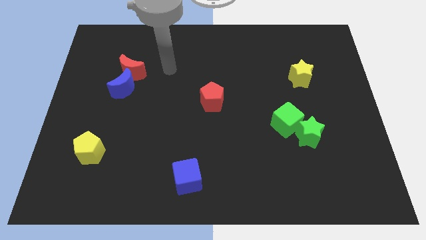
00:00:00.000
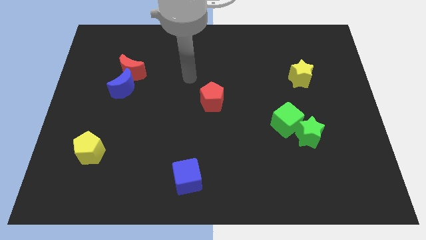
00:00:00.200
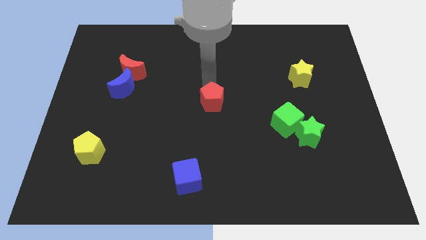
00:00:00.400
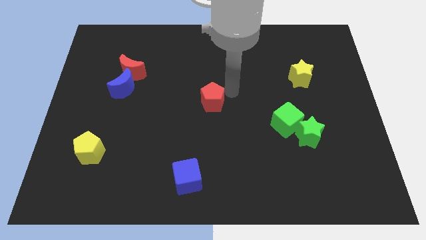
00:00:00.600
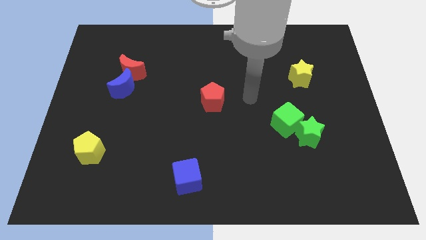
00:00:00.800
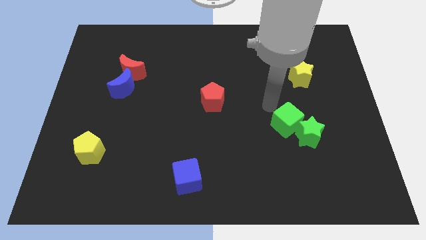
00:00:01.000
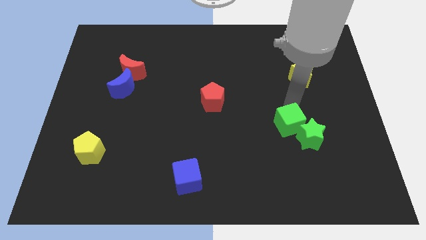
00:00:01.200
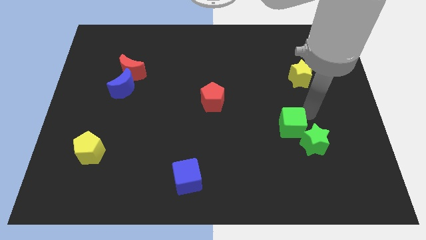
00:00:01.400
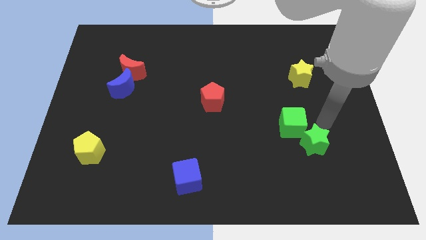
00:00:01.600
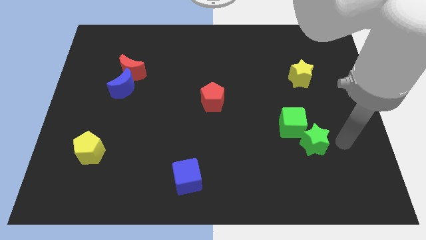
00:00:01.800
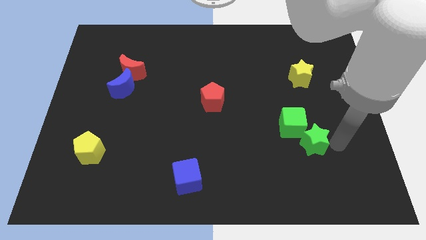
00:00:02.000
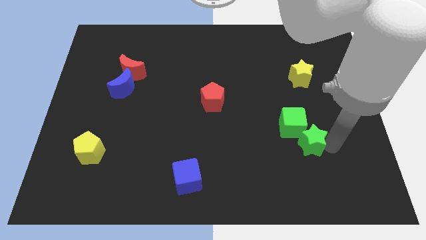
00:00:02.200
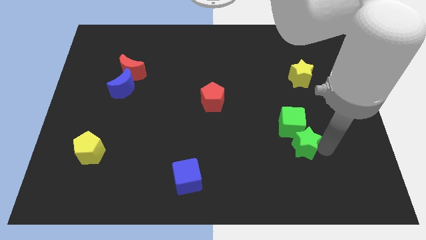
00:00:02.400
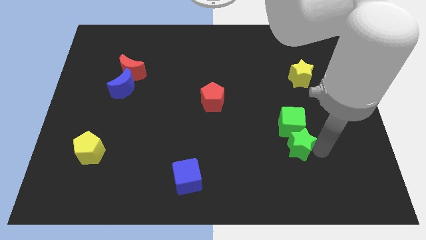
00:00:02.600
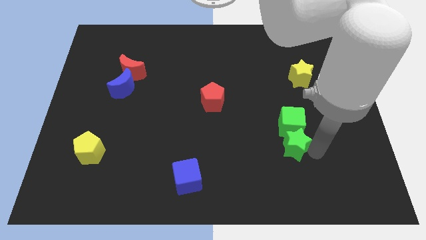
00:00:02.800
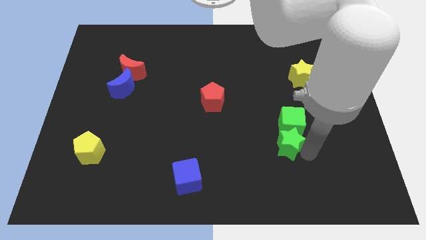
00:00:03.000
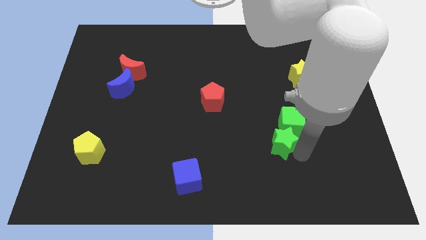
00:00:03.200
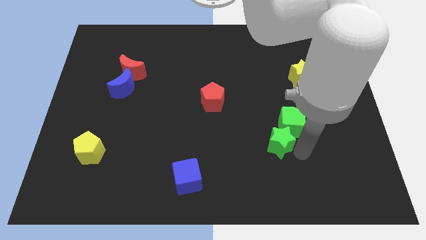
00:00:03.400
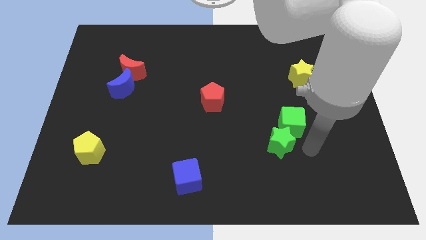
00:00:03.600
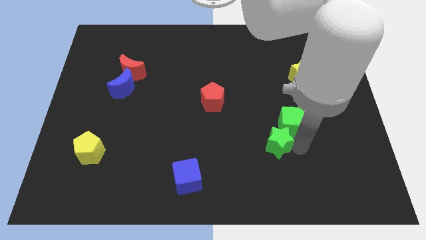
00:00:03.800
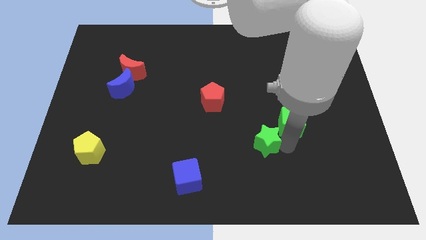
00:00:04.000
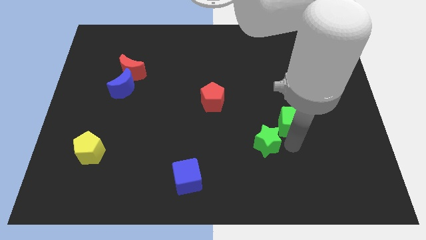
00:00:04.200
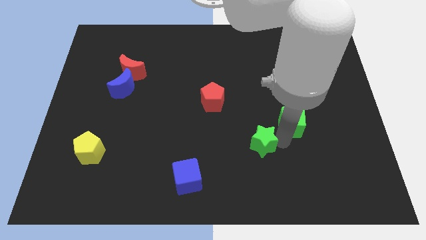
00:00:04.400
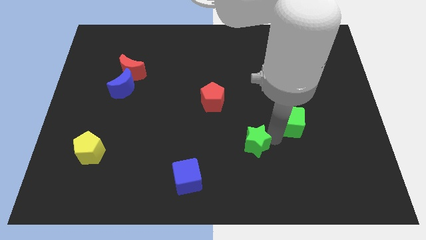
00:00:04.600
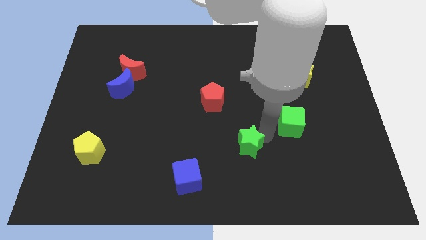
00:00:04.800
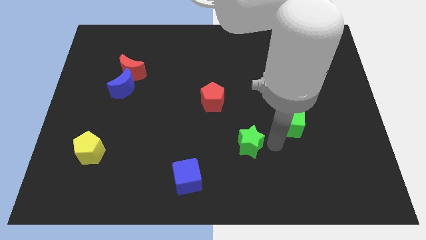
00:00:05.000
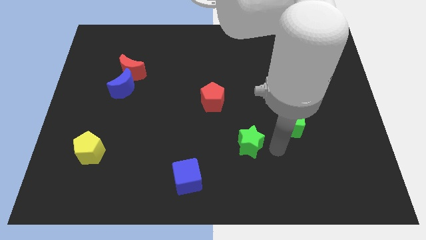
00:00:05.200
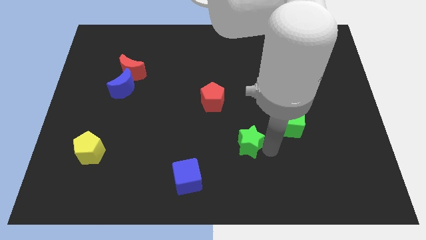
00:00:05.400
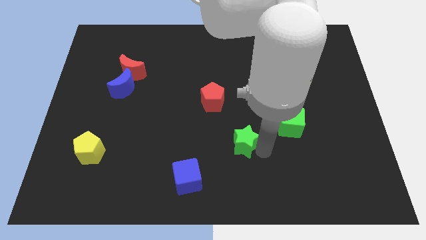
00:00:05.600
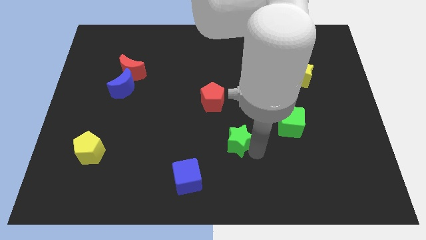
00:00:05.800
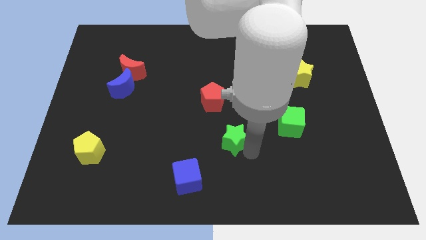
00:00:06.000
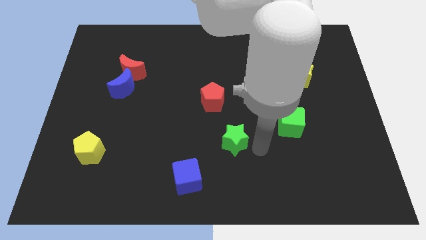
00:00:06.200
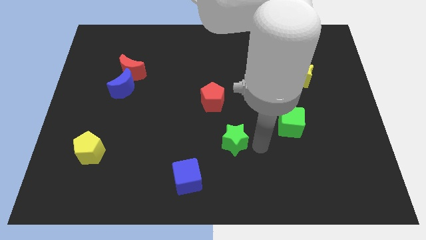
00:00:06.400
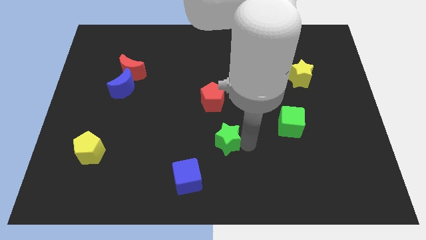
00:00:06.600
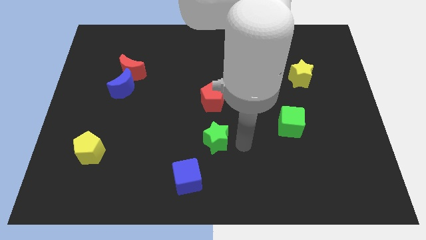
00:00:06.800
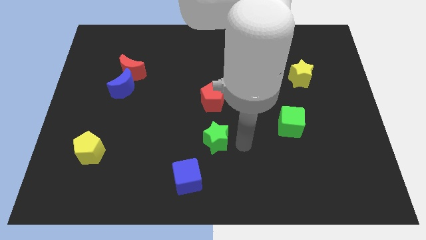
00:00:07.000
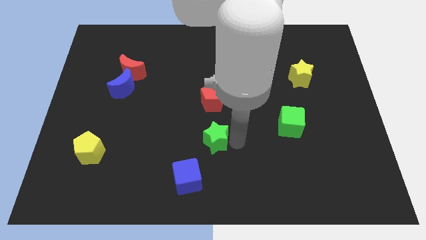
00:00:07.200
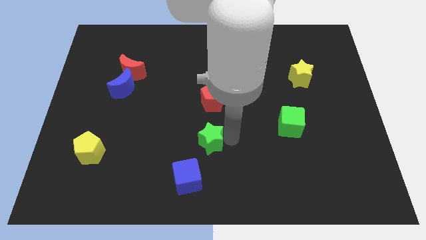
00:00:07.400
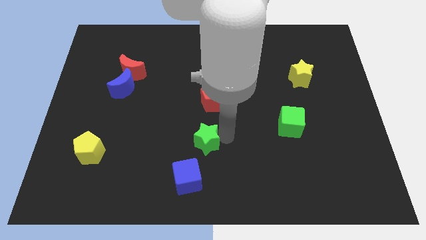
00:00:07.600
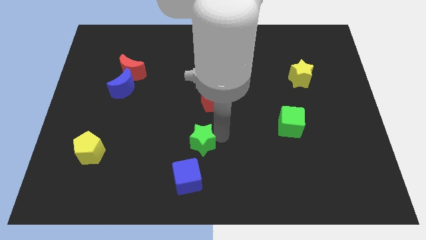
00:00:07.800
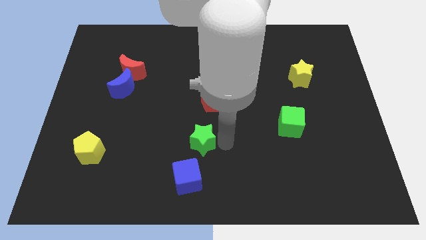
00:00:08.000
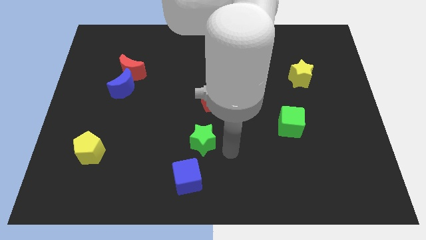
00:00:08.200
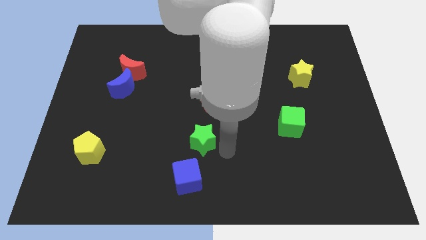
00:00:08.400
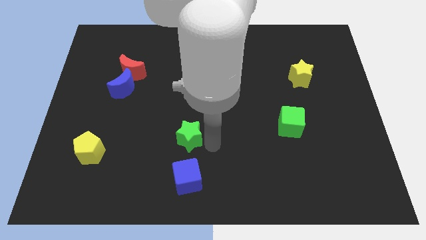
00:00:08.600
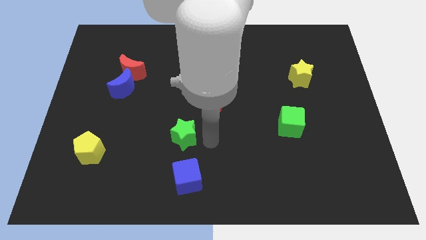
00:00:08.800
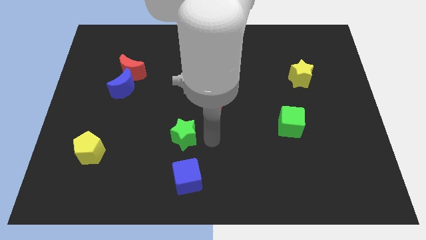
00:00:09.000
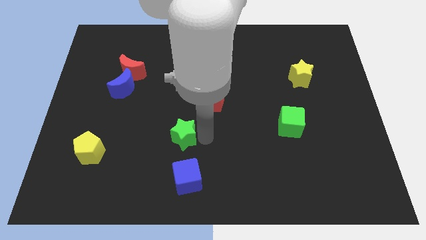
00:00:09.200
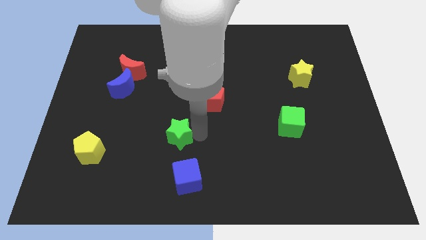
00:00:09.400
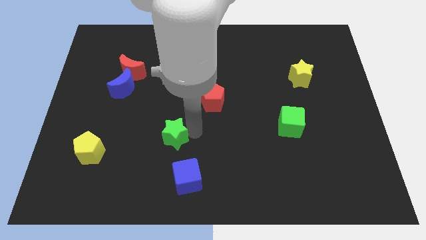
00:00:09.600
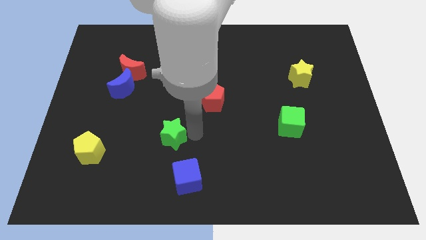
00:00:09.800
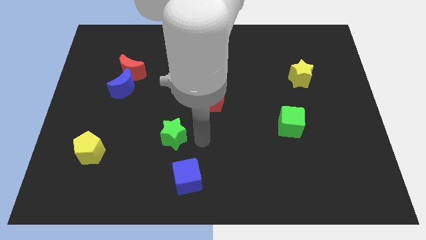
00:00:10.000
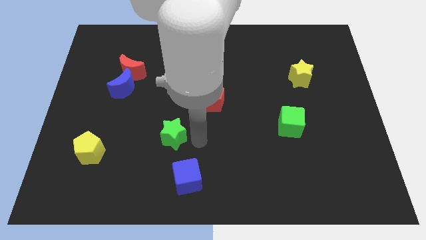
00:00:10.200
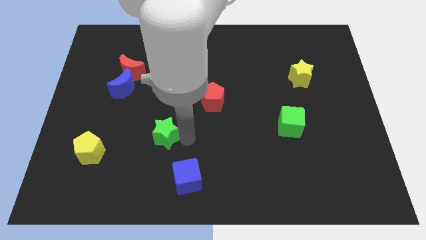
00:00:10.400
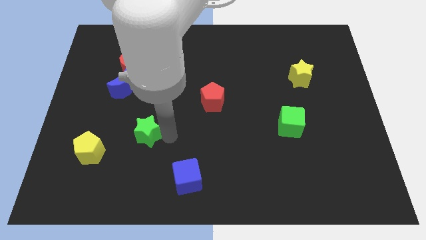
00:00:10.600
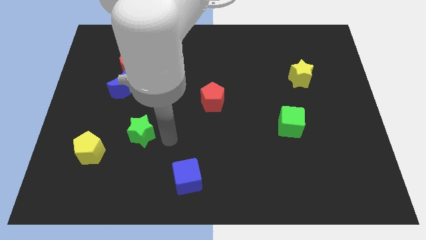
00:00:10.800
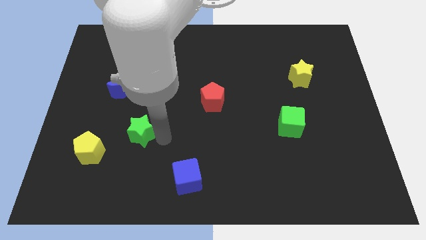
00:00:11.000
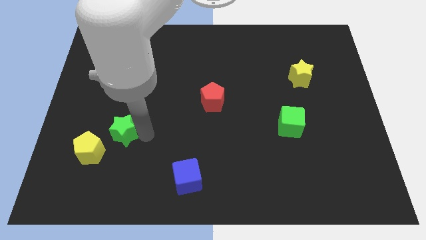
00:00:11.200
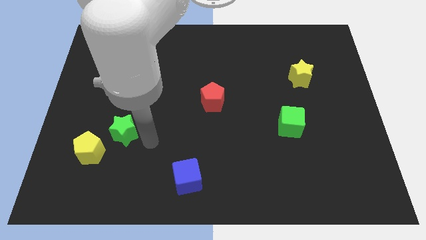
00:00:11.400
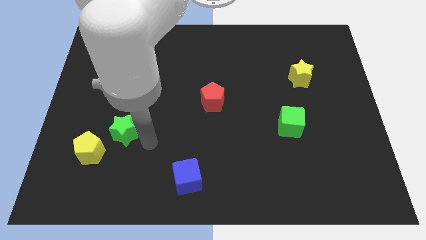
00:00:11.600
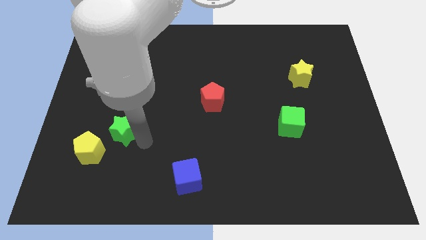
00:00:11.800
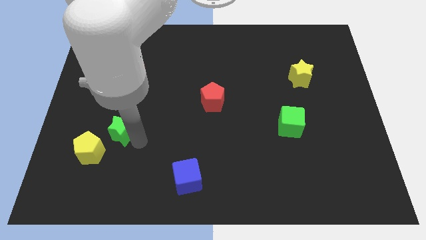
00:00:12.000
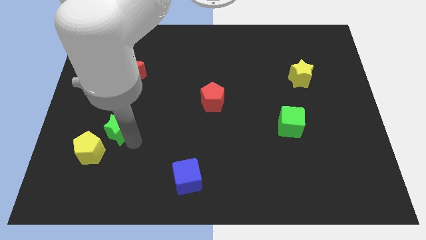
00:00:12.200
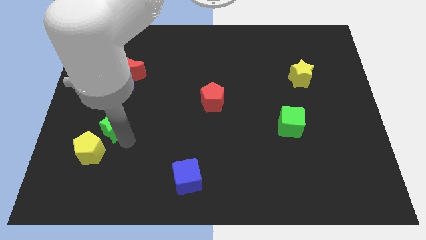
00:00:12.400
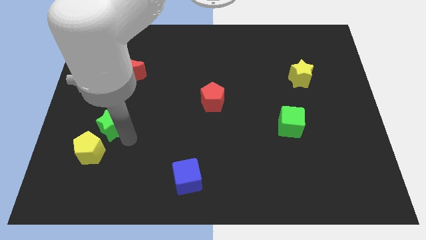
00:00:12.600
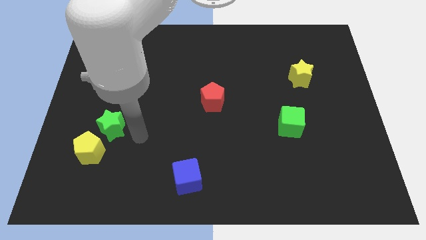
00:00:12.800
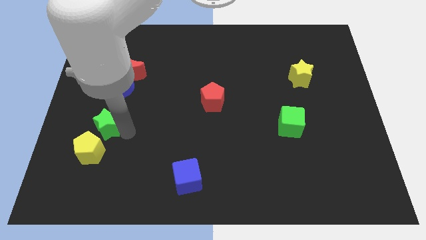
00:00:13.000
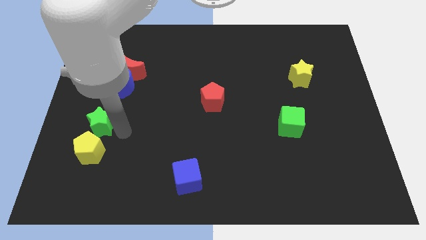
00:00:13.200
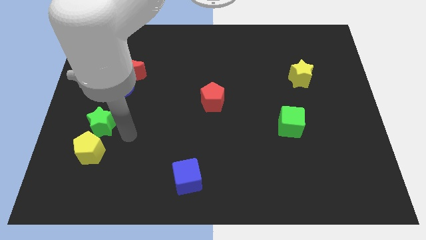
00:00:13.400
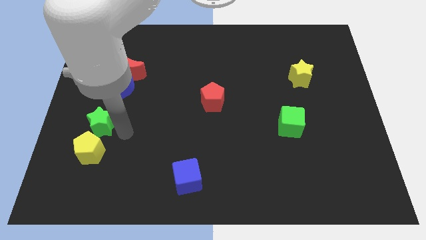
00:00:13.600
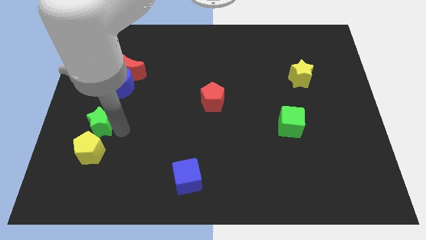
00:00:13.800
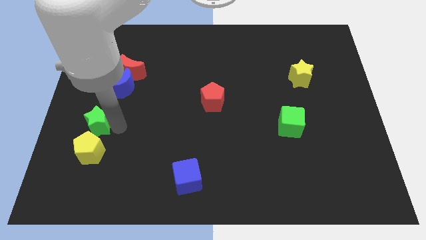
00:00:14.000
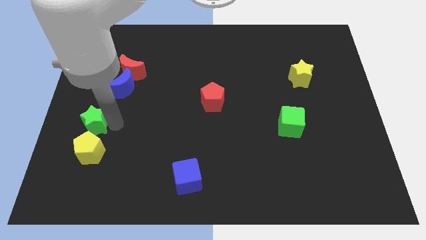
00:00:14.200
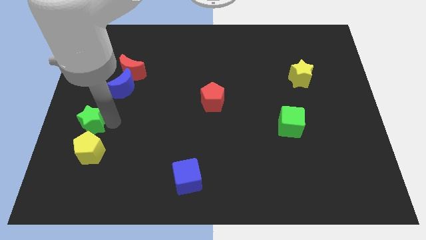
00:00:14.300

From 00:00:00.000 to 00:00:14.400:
slide the green star to the left side
